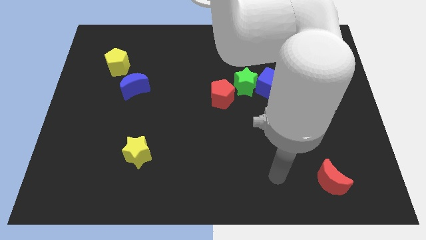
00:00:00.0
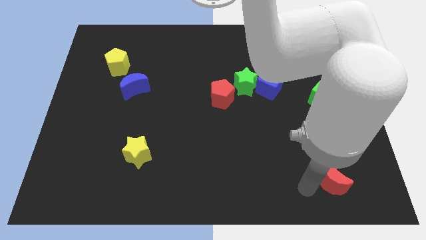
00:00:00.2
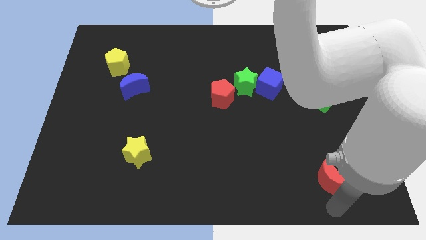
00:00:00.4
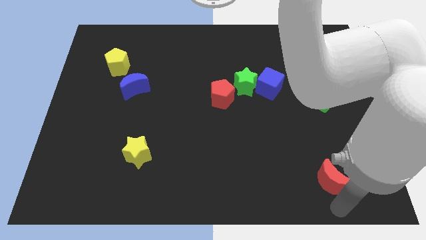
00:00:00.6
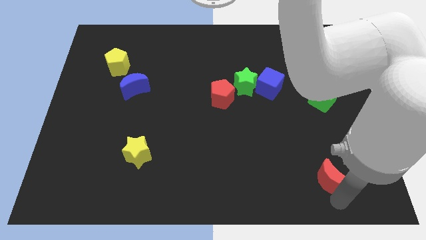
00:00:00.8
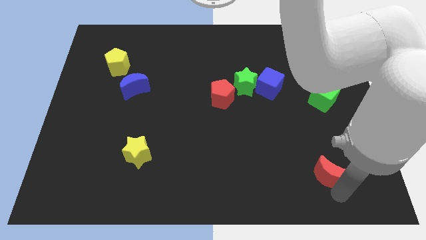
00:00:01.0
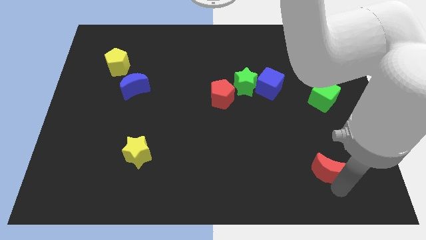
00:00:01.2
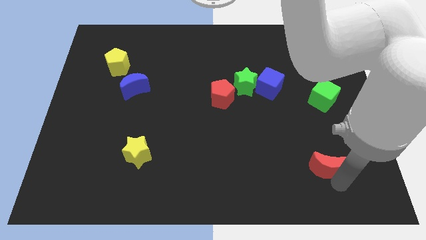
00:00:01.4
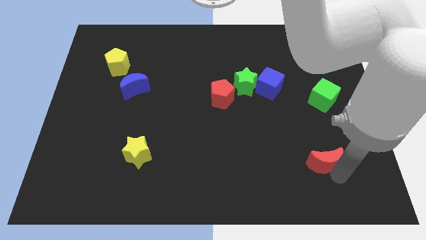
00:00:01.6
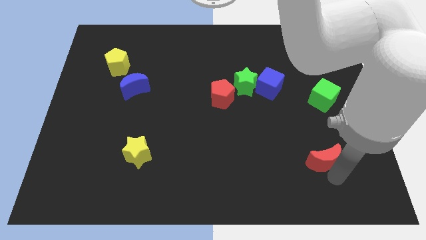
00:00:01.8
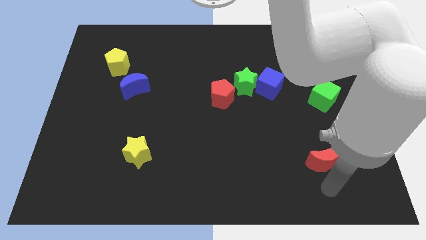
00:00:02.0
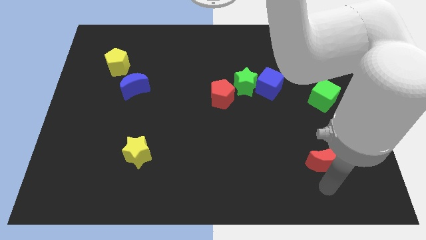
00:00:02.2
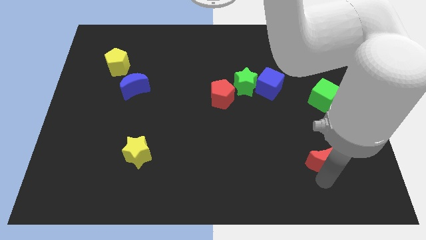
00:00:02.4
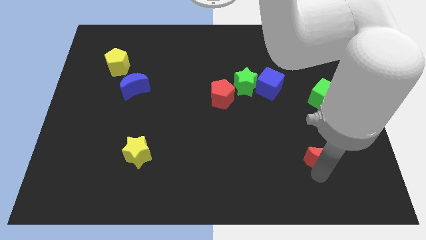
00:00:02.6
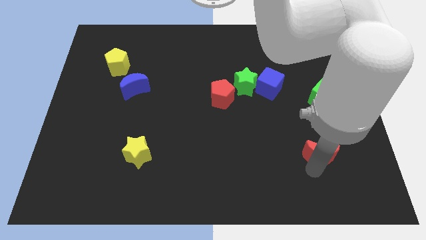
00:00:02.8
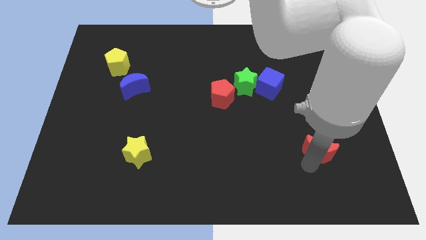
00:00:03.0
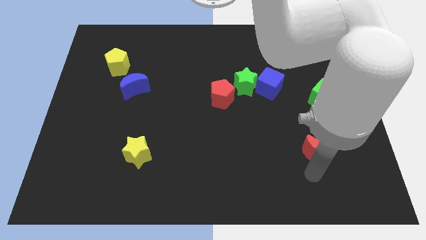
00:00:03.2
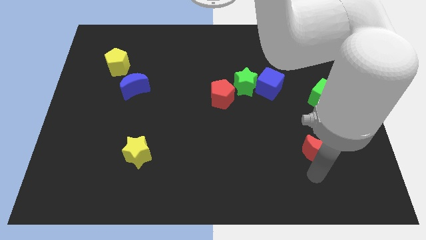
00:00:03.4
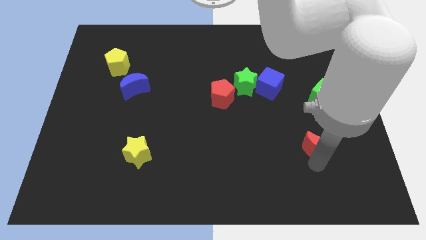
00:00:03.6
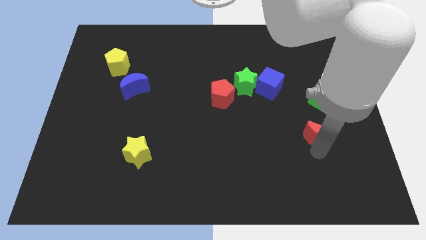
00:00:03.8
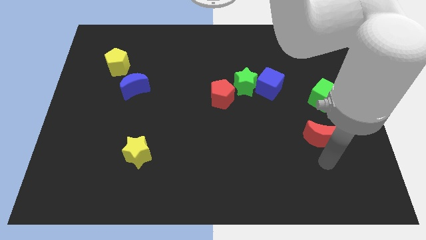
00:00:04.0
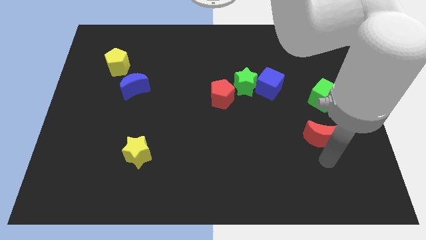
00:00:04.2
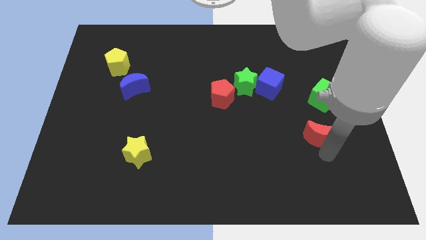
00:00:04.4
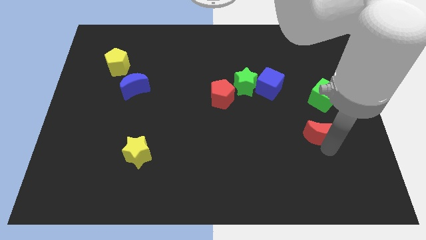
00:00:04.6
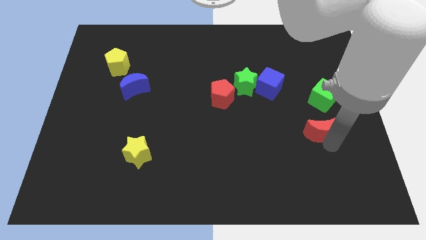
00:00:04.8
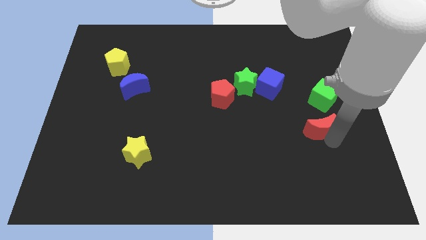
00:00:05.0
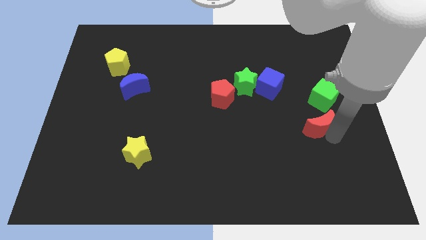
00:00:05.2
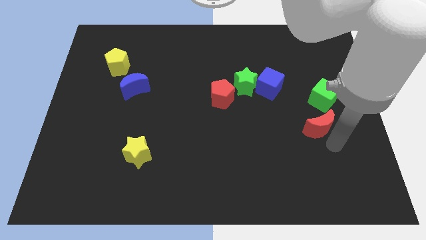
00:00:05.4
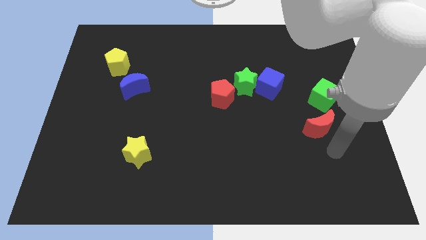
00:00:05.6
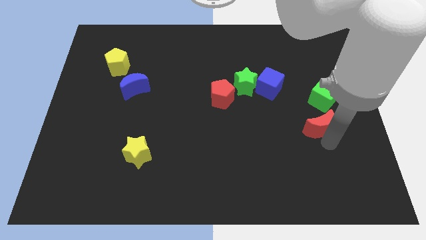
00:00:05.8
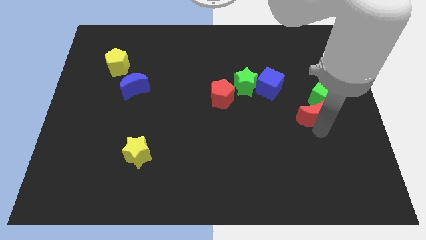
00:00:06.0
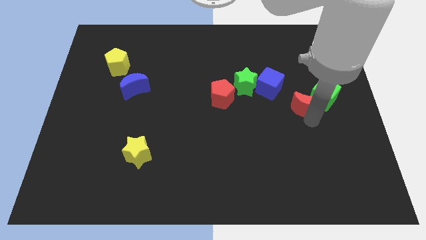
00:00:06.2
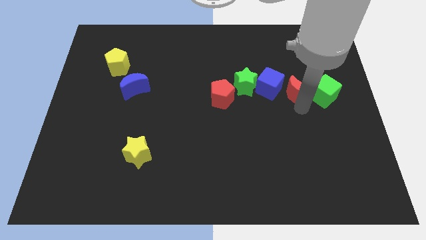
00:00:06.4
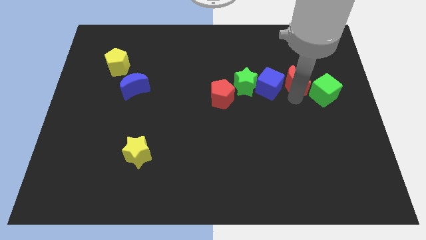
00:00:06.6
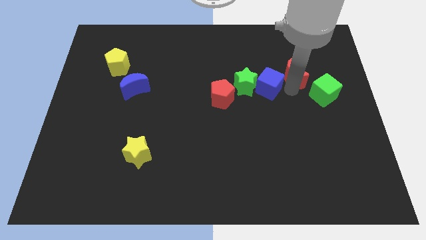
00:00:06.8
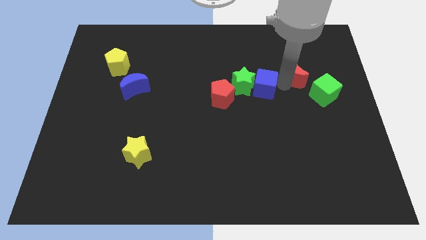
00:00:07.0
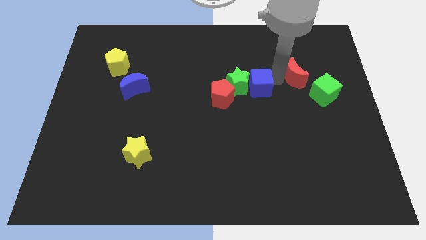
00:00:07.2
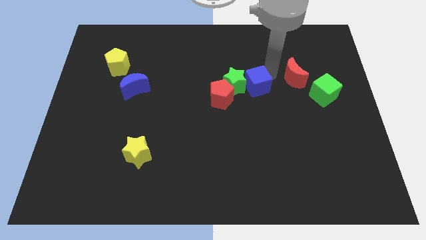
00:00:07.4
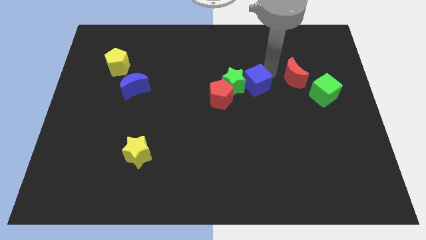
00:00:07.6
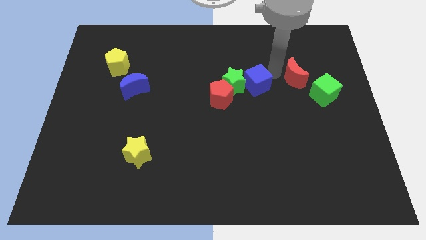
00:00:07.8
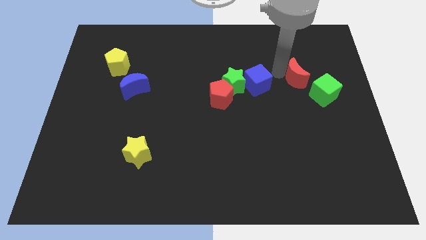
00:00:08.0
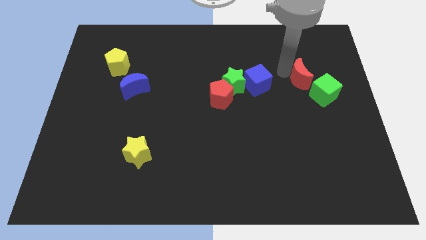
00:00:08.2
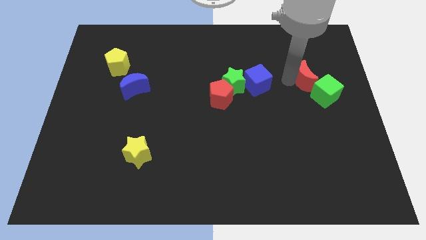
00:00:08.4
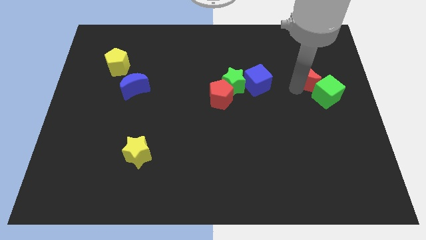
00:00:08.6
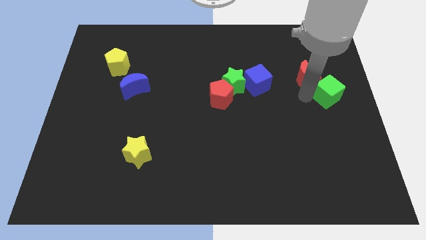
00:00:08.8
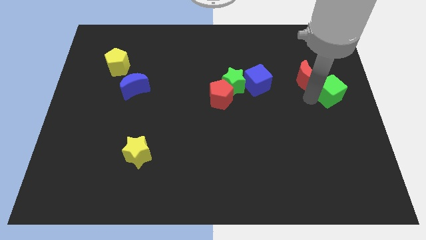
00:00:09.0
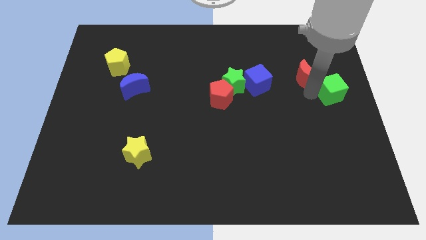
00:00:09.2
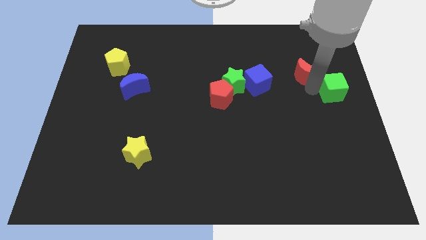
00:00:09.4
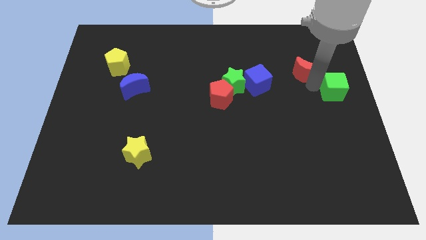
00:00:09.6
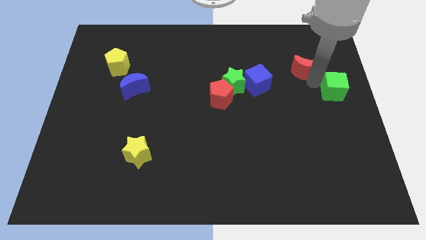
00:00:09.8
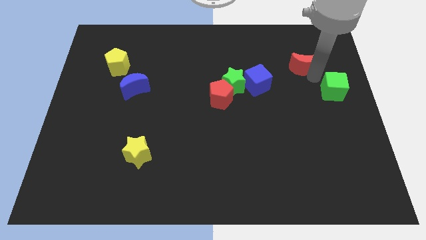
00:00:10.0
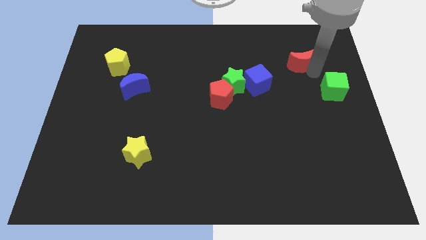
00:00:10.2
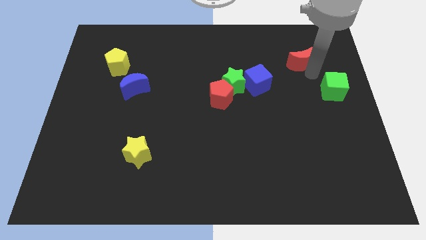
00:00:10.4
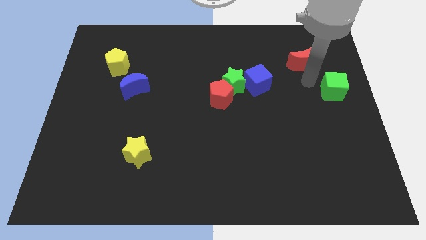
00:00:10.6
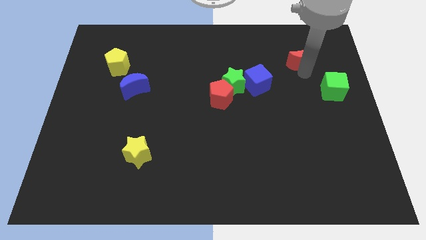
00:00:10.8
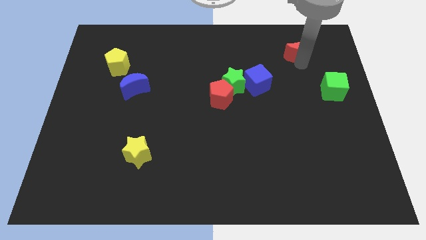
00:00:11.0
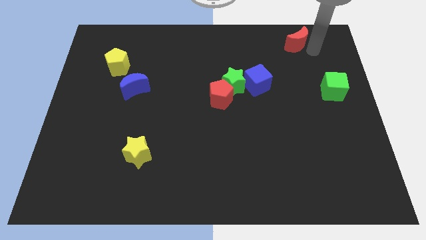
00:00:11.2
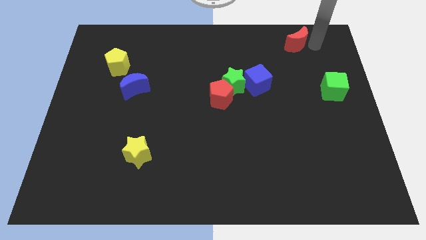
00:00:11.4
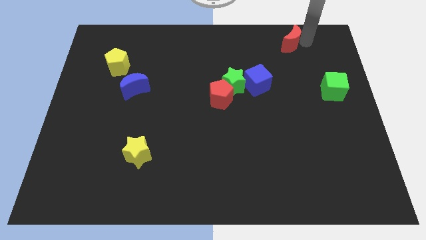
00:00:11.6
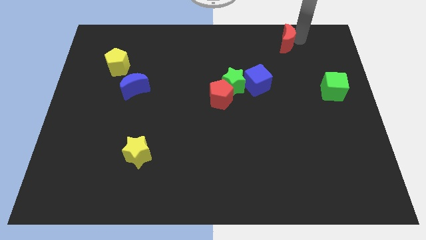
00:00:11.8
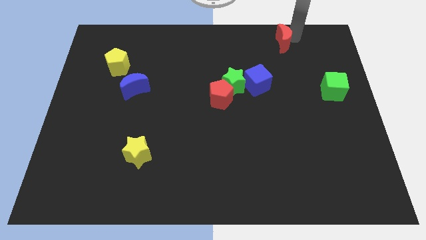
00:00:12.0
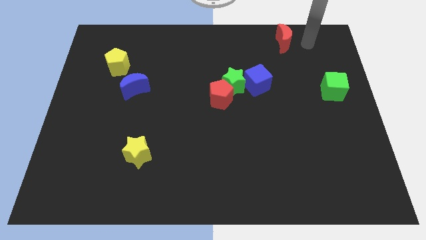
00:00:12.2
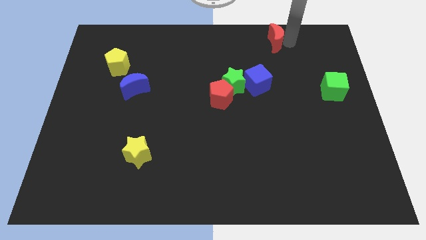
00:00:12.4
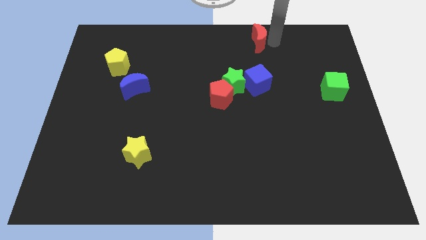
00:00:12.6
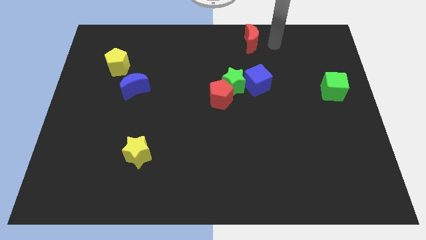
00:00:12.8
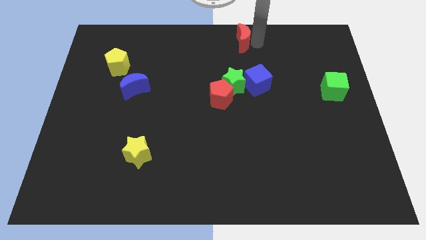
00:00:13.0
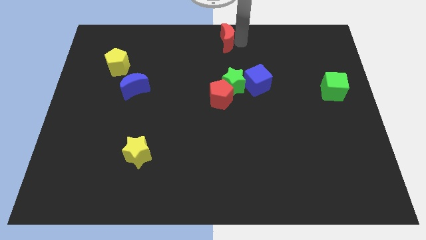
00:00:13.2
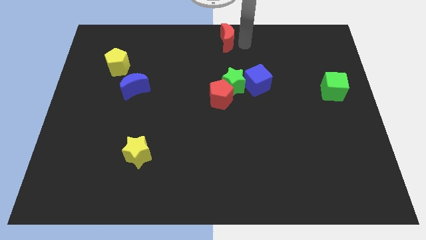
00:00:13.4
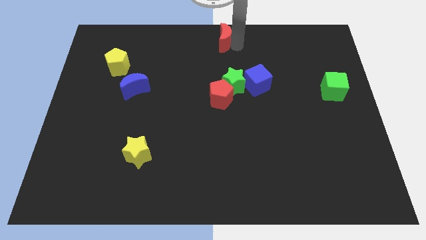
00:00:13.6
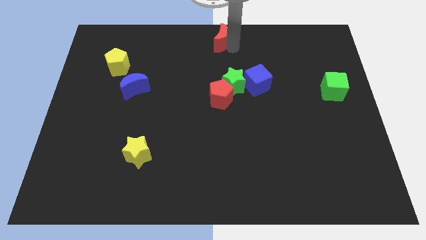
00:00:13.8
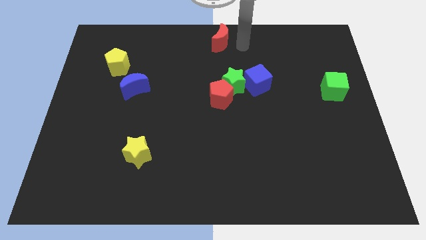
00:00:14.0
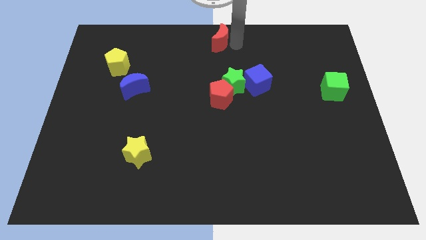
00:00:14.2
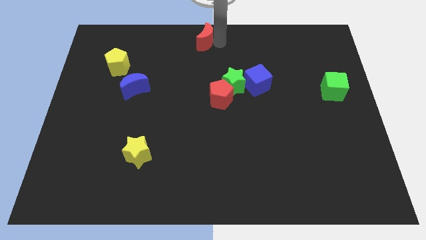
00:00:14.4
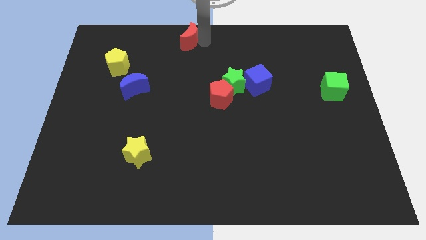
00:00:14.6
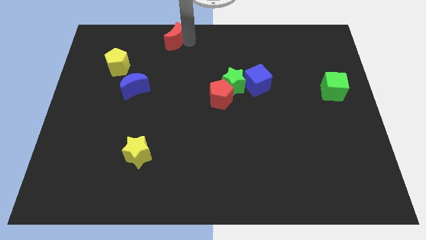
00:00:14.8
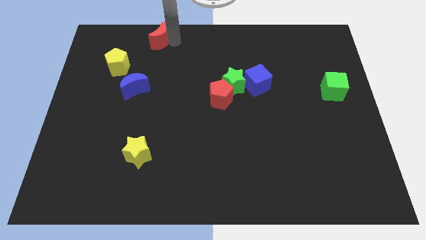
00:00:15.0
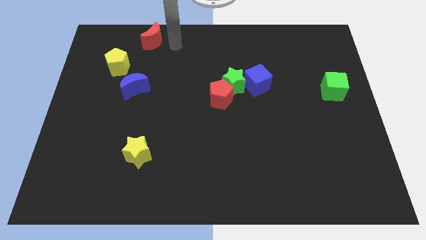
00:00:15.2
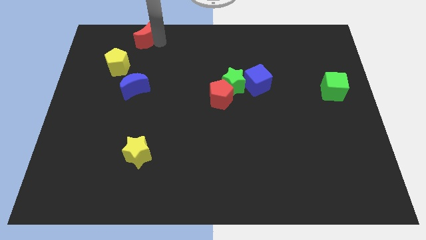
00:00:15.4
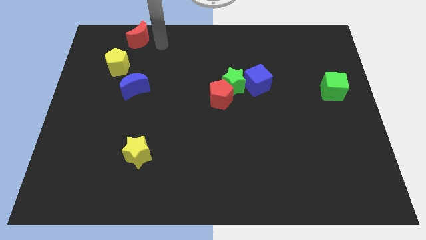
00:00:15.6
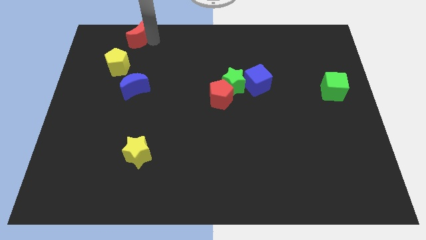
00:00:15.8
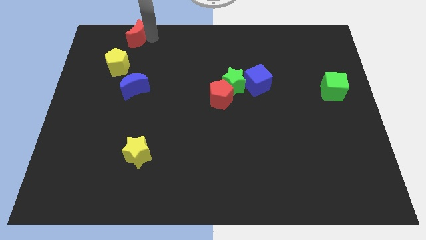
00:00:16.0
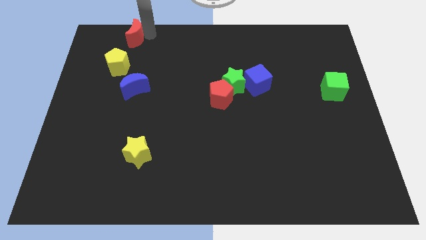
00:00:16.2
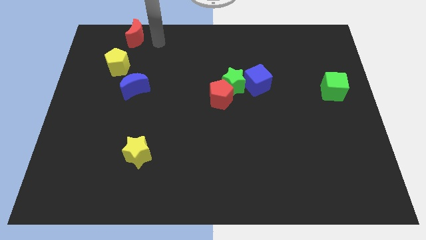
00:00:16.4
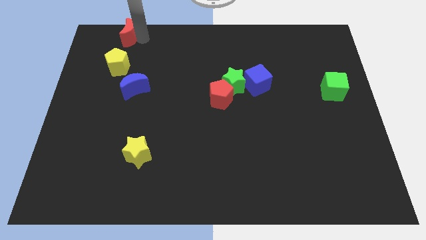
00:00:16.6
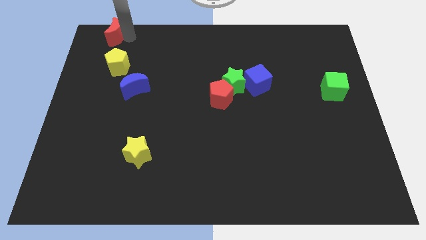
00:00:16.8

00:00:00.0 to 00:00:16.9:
put the red moon to the top left corner
